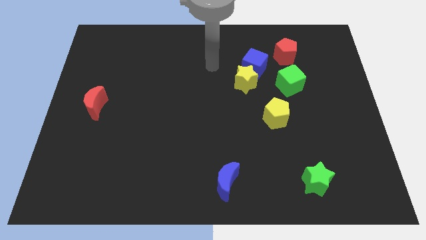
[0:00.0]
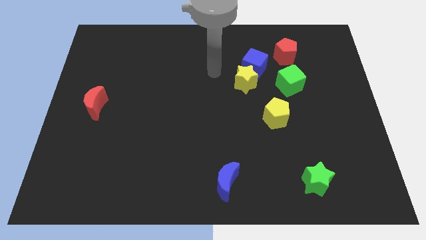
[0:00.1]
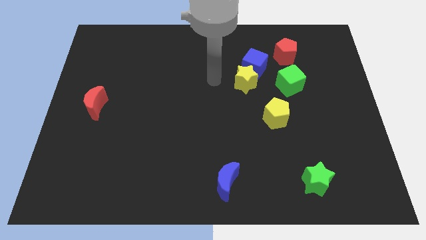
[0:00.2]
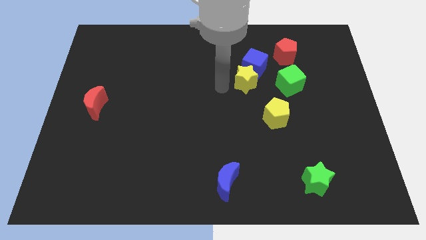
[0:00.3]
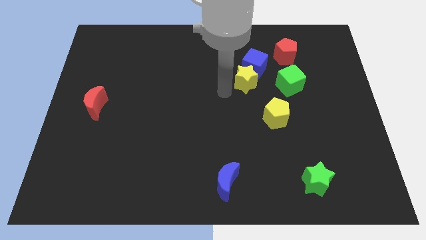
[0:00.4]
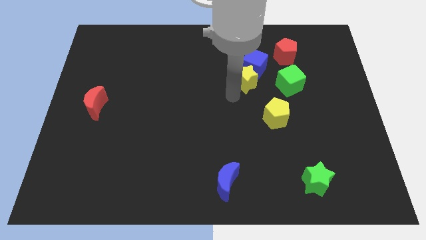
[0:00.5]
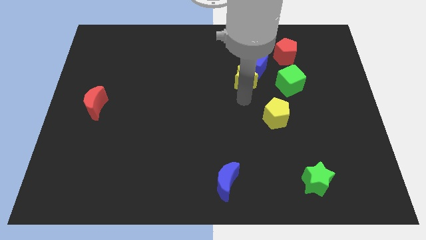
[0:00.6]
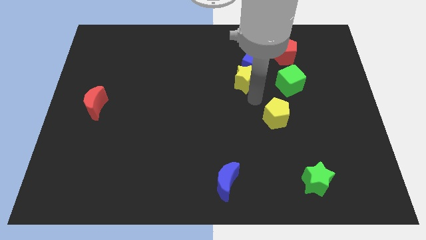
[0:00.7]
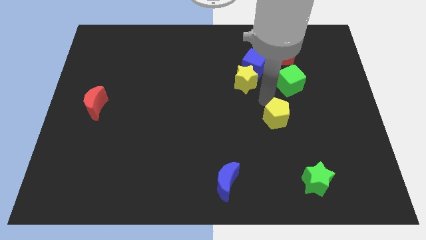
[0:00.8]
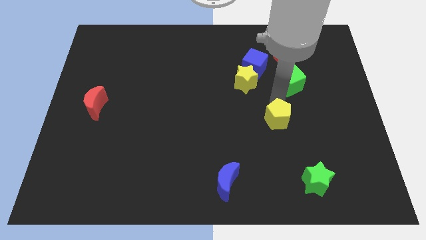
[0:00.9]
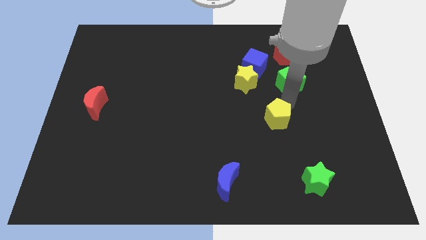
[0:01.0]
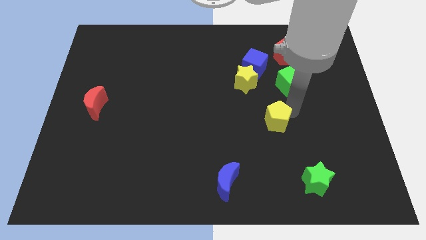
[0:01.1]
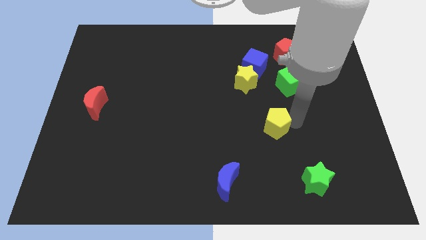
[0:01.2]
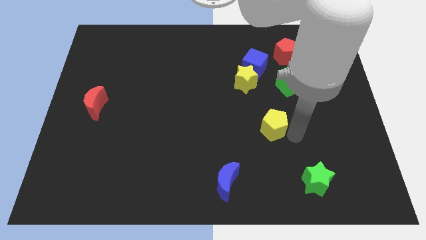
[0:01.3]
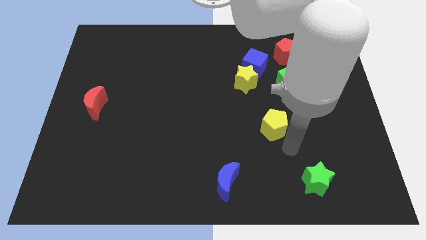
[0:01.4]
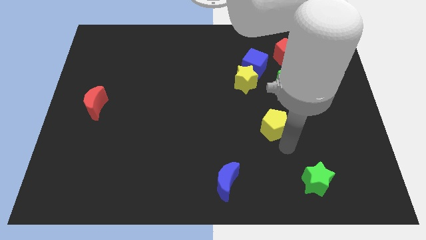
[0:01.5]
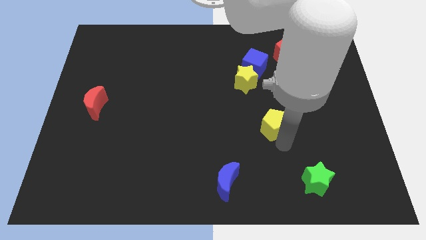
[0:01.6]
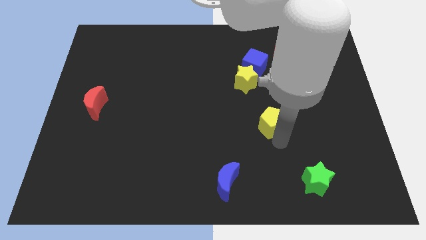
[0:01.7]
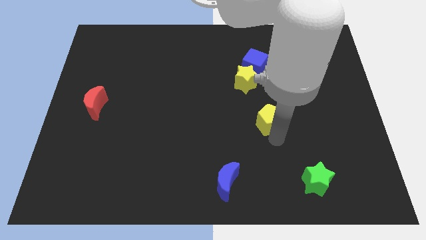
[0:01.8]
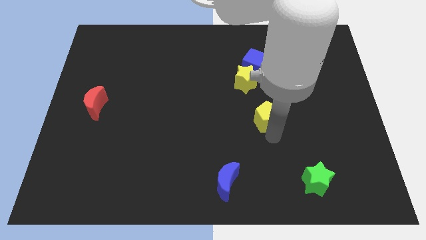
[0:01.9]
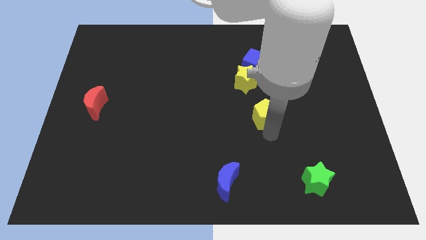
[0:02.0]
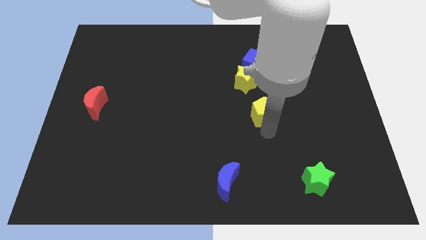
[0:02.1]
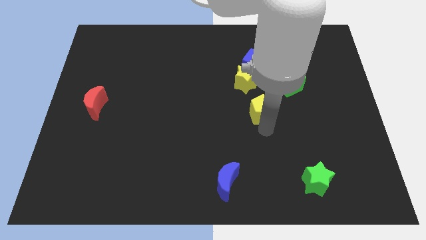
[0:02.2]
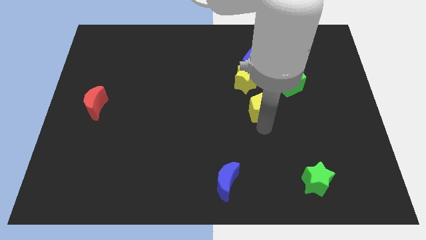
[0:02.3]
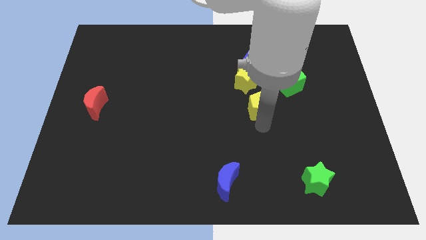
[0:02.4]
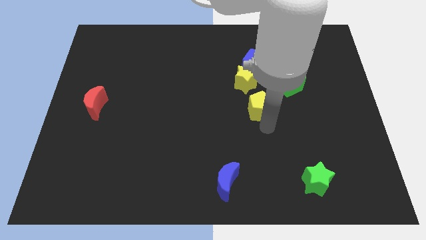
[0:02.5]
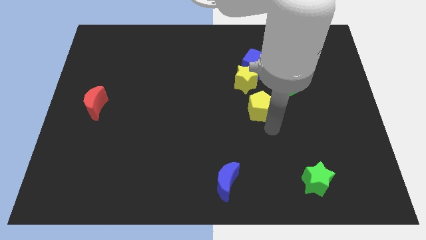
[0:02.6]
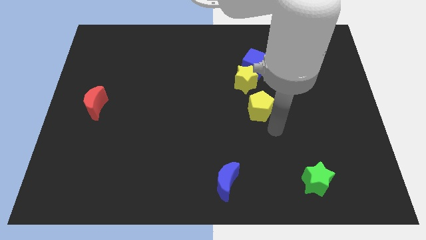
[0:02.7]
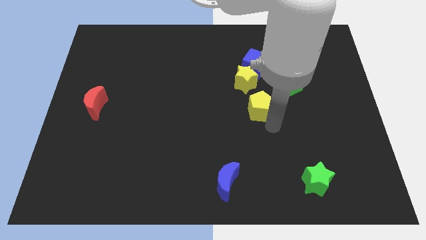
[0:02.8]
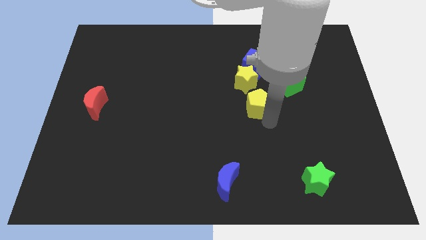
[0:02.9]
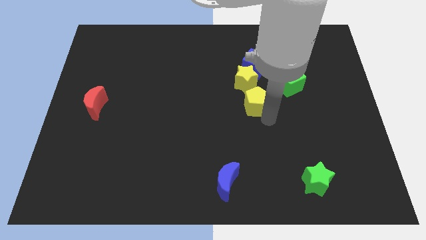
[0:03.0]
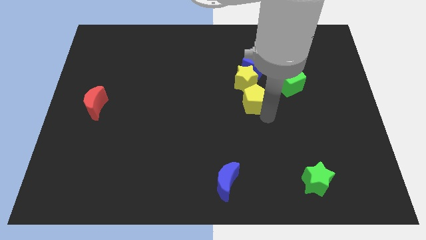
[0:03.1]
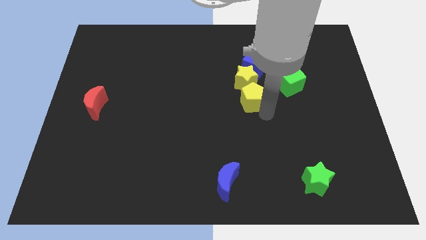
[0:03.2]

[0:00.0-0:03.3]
move the yellow pentagon a little bit diagonally up and to the left

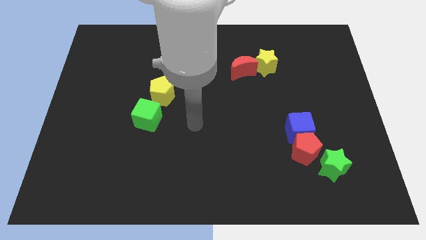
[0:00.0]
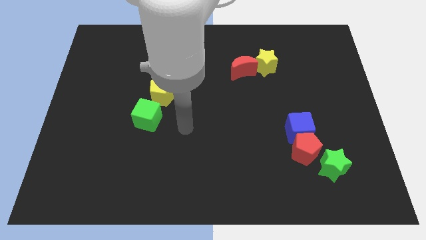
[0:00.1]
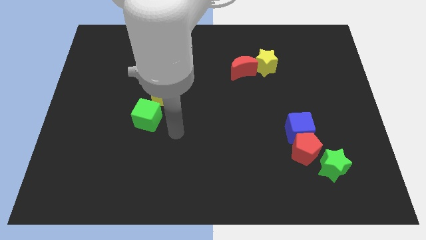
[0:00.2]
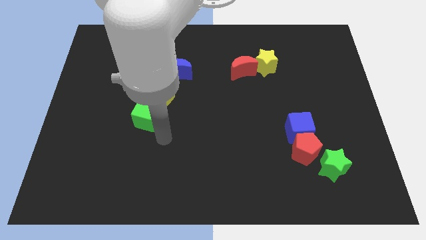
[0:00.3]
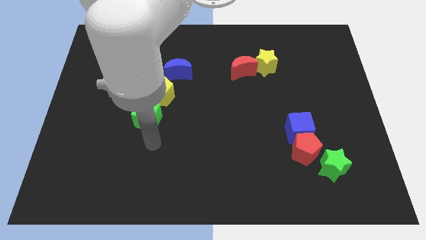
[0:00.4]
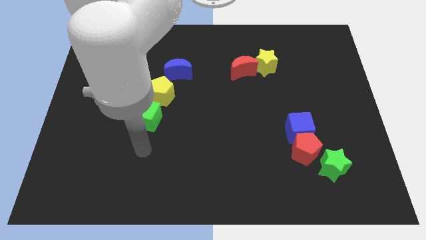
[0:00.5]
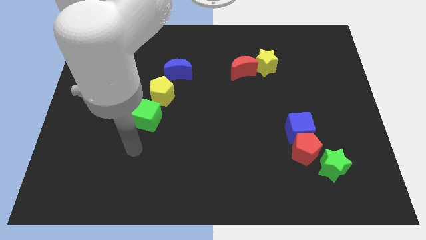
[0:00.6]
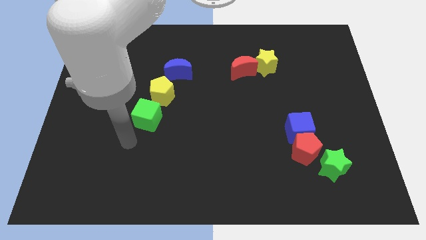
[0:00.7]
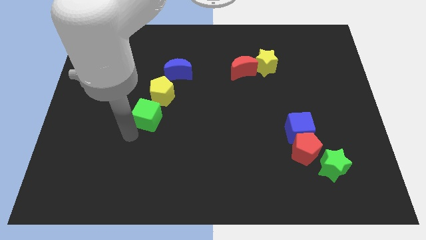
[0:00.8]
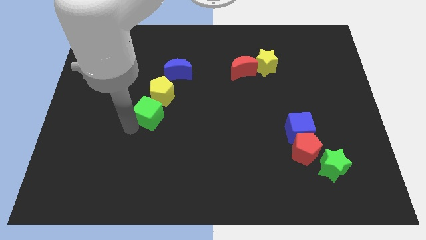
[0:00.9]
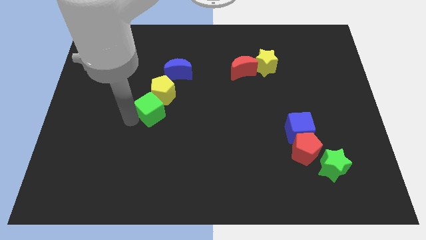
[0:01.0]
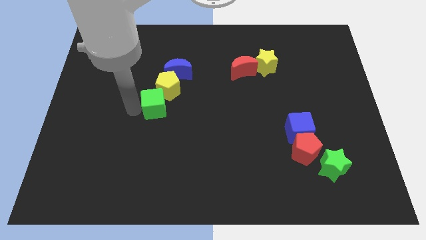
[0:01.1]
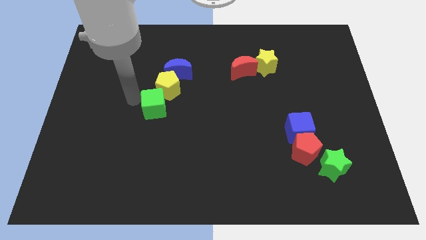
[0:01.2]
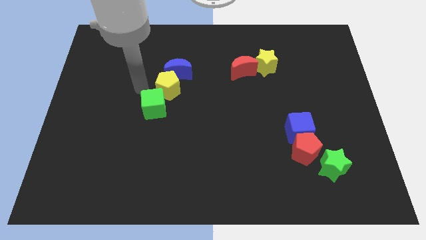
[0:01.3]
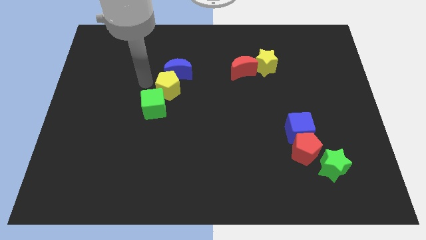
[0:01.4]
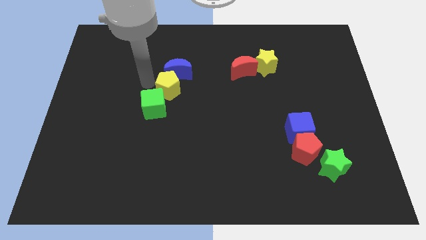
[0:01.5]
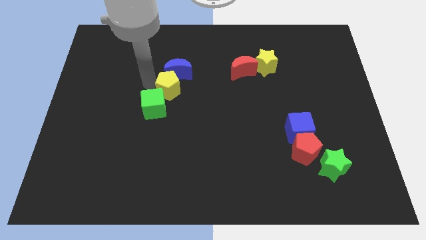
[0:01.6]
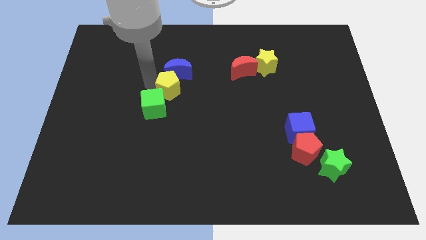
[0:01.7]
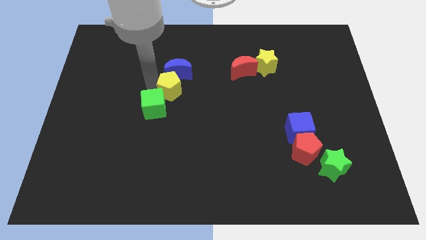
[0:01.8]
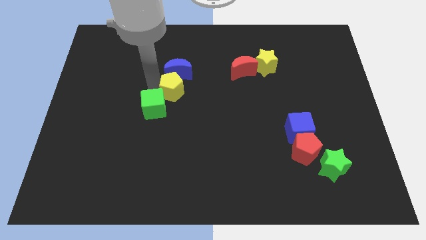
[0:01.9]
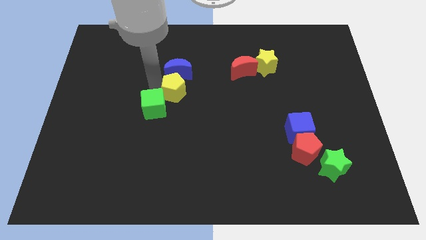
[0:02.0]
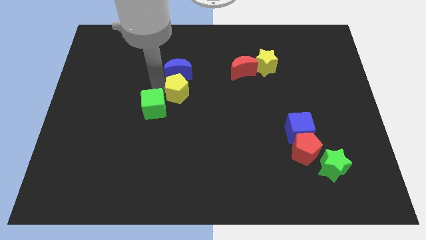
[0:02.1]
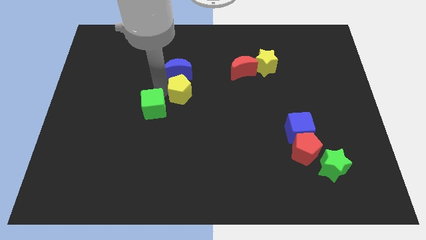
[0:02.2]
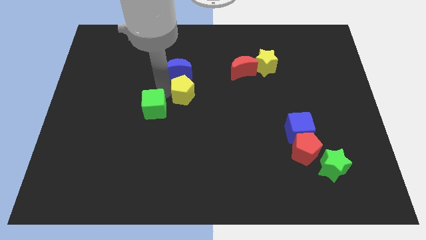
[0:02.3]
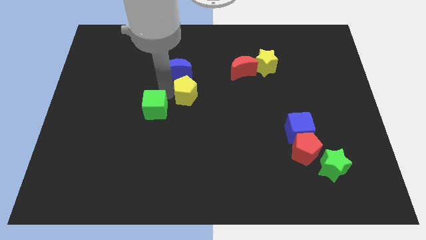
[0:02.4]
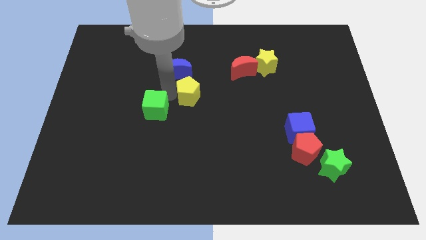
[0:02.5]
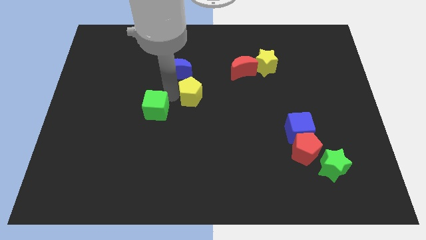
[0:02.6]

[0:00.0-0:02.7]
slide the yellow pentagon to the right somewhat

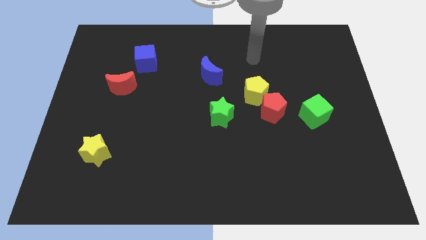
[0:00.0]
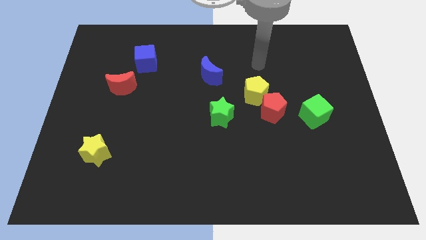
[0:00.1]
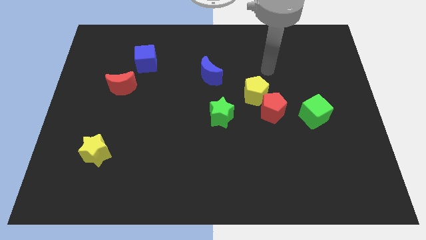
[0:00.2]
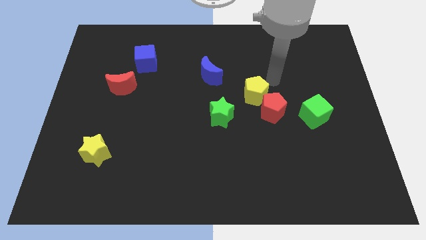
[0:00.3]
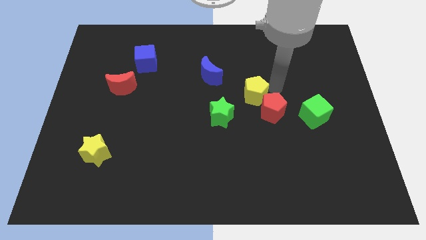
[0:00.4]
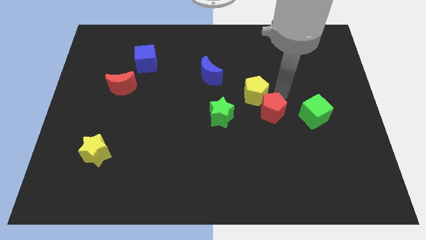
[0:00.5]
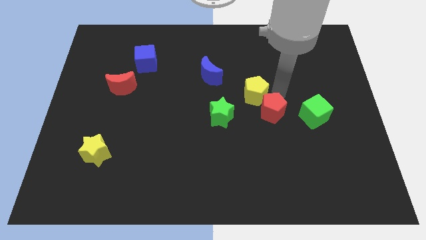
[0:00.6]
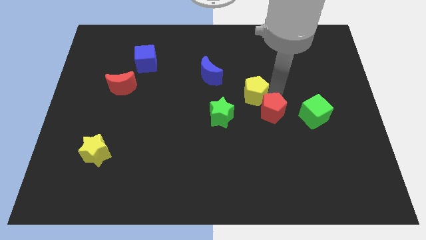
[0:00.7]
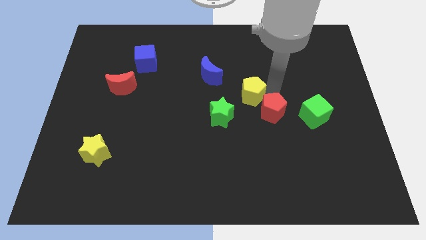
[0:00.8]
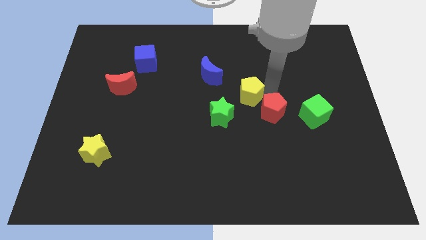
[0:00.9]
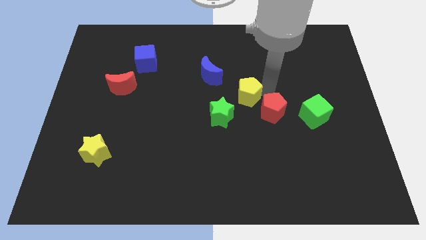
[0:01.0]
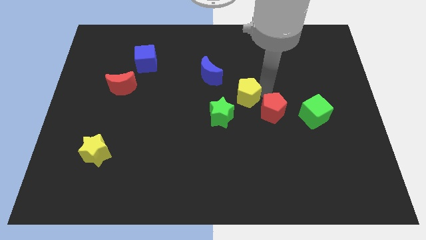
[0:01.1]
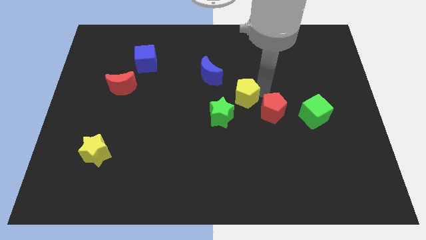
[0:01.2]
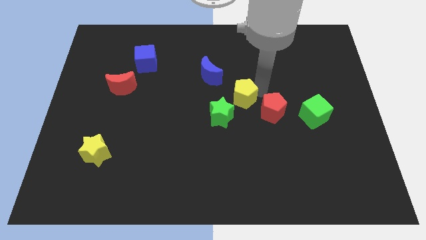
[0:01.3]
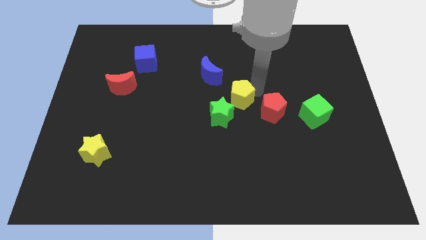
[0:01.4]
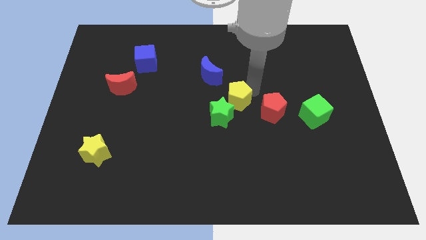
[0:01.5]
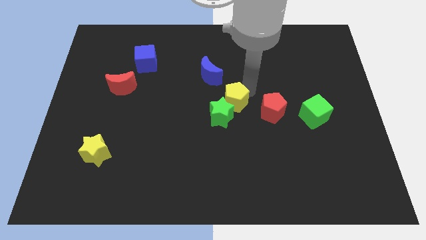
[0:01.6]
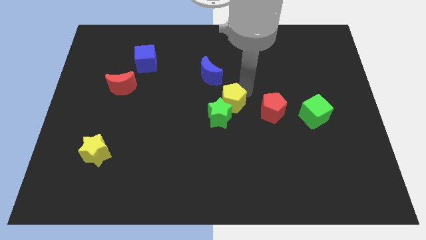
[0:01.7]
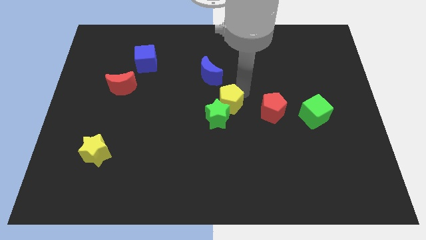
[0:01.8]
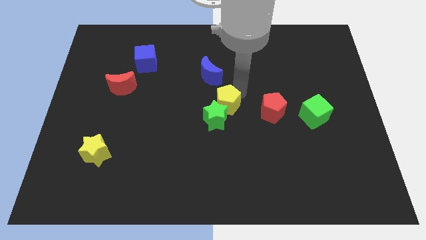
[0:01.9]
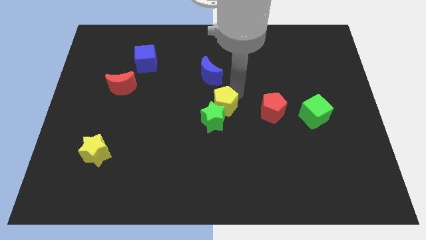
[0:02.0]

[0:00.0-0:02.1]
push the yellow pentagon slightly left
